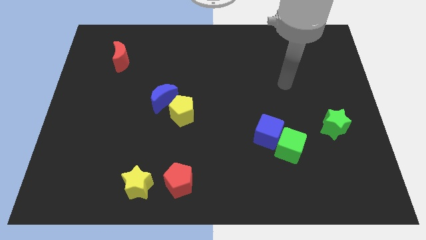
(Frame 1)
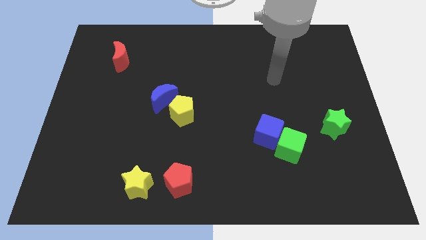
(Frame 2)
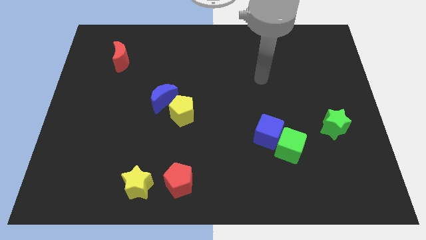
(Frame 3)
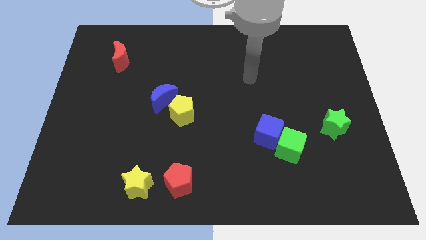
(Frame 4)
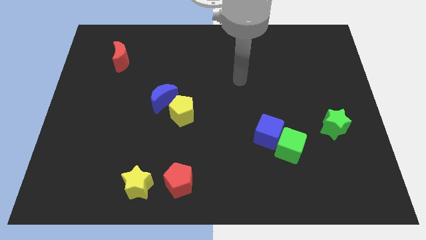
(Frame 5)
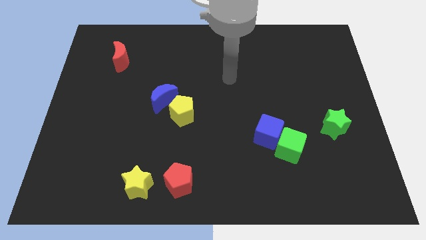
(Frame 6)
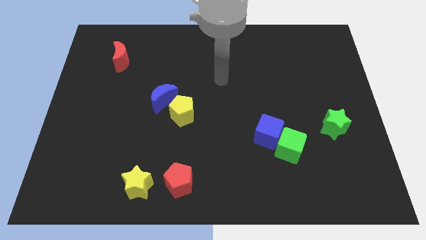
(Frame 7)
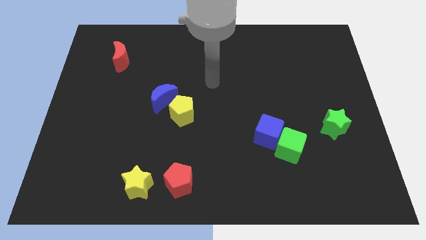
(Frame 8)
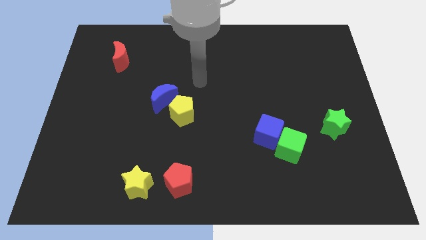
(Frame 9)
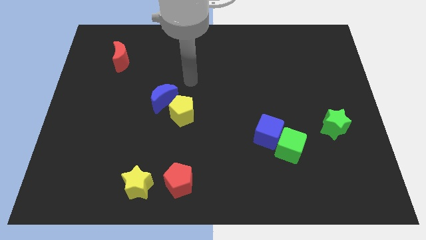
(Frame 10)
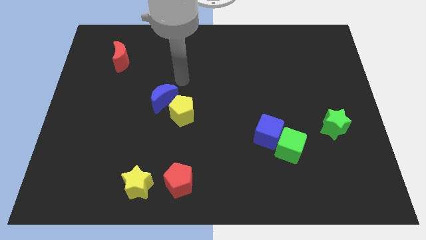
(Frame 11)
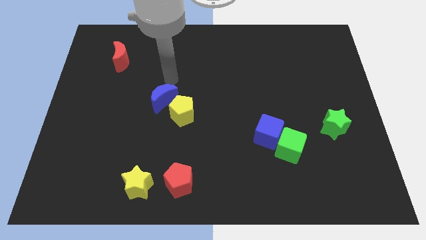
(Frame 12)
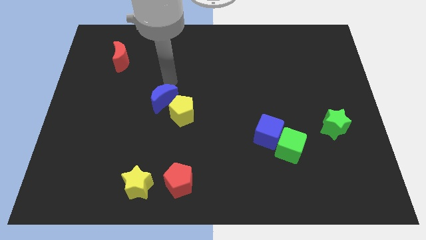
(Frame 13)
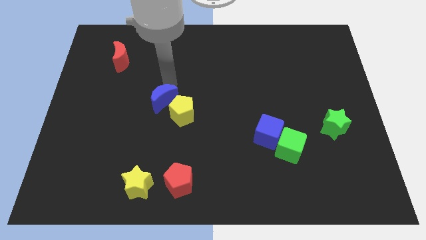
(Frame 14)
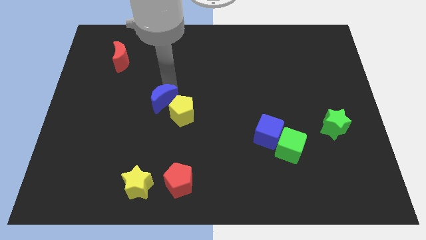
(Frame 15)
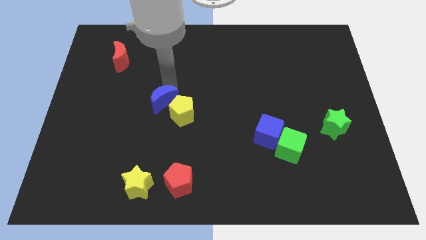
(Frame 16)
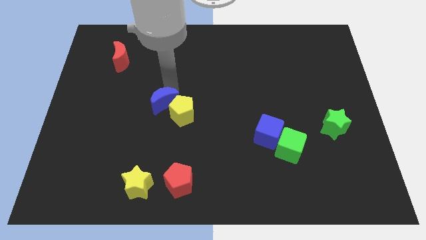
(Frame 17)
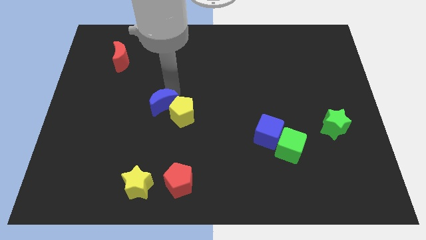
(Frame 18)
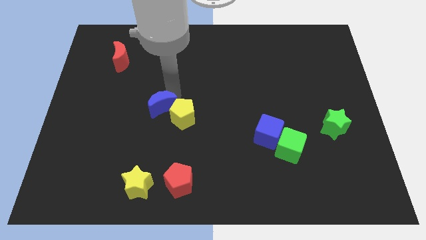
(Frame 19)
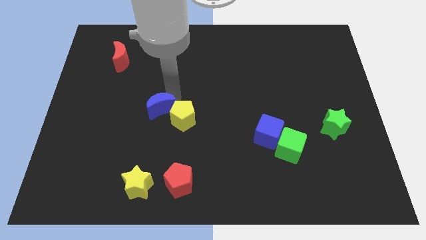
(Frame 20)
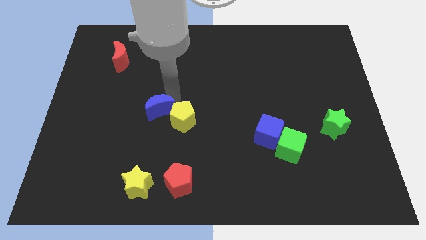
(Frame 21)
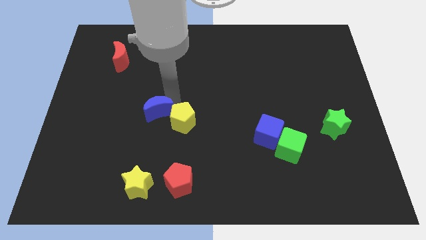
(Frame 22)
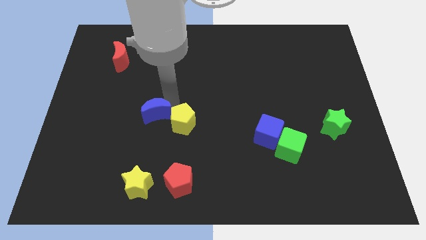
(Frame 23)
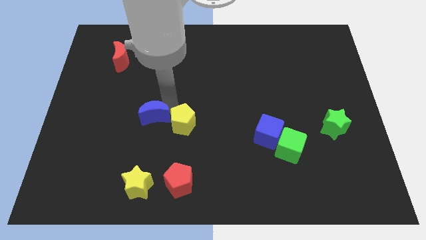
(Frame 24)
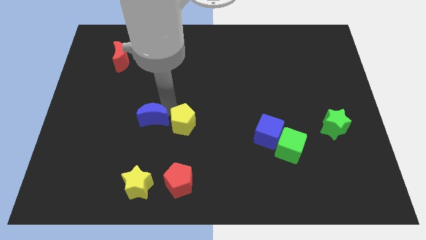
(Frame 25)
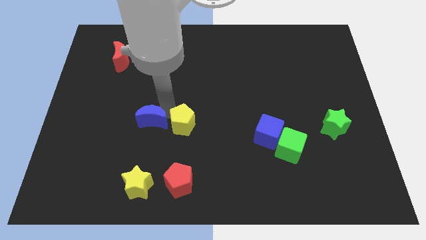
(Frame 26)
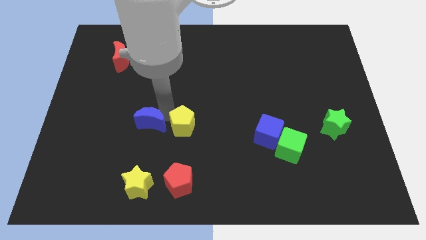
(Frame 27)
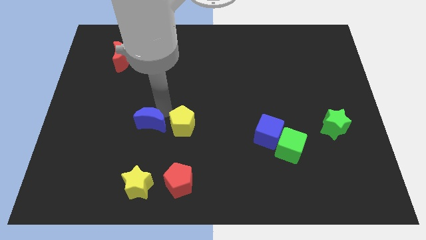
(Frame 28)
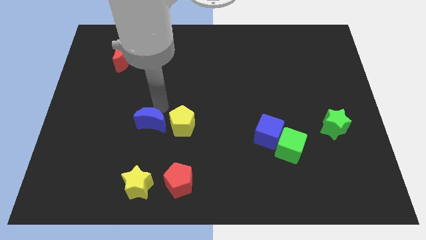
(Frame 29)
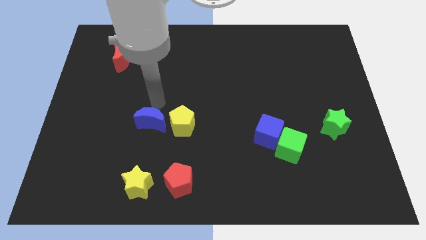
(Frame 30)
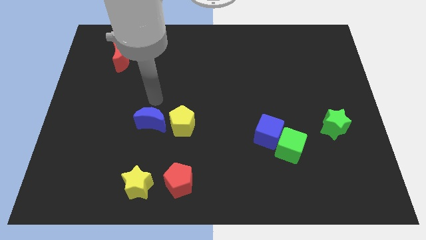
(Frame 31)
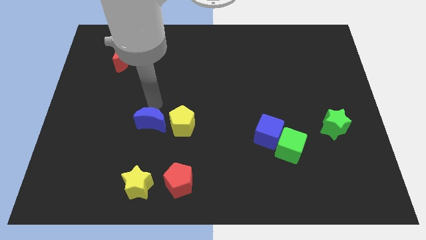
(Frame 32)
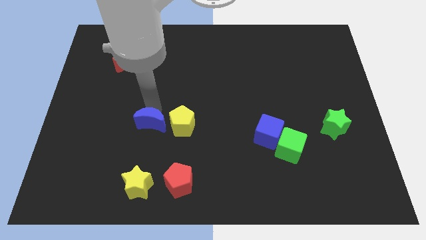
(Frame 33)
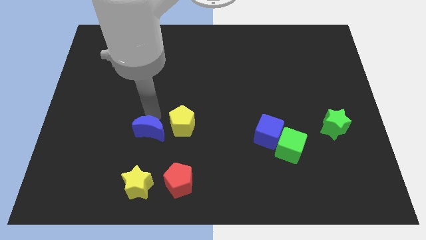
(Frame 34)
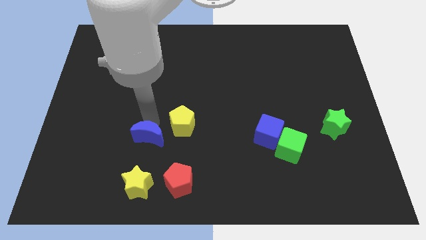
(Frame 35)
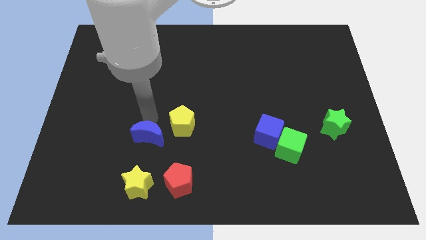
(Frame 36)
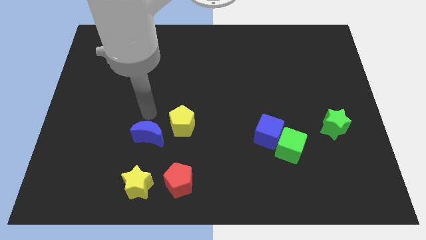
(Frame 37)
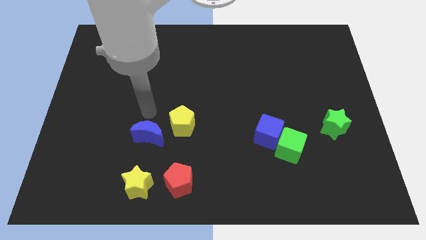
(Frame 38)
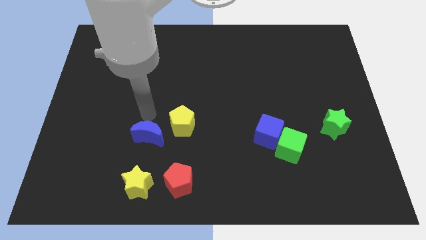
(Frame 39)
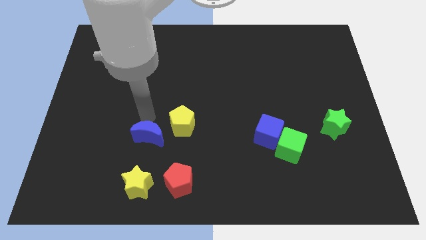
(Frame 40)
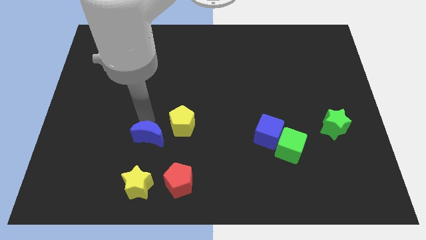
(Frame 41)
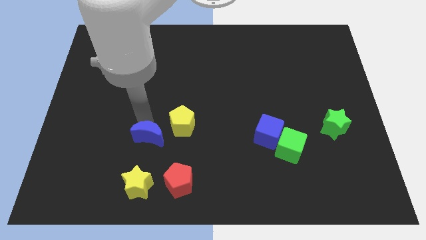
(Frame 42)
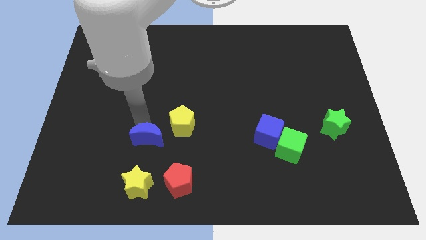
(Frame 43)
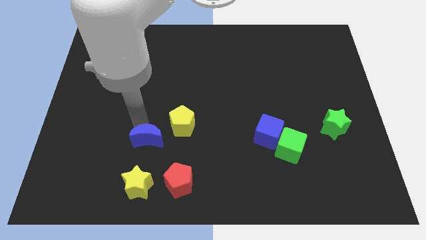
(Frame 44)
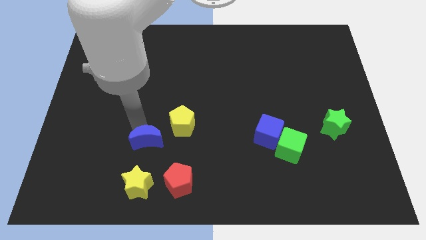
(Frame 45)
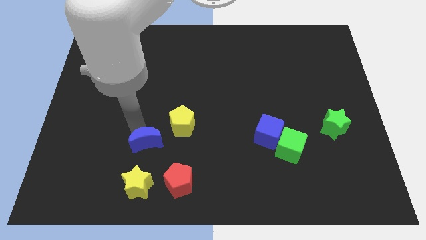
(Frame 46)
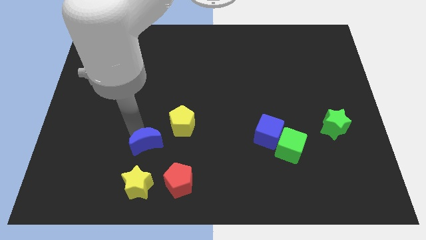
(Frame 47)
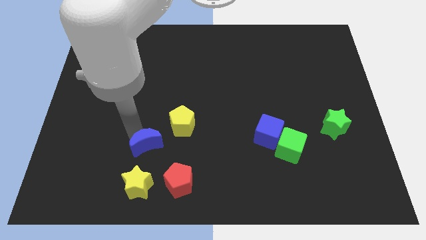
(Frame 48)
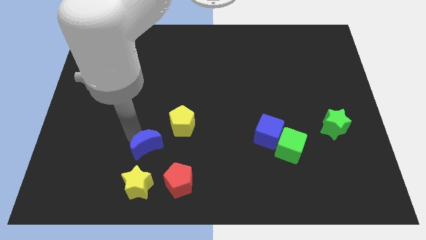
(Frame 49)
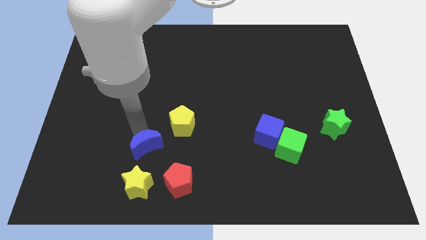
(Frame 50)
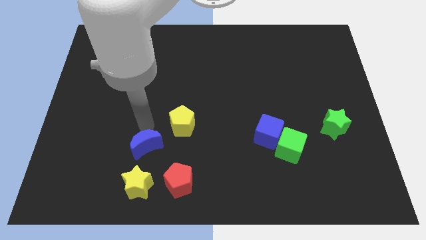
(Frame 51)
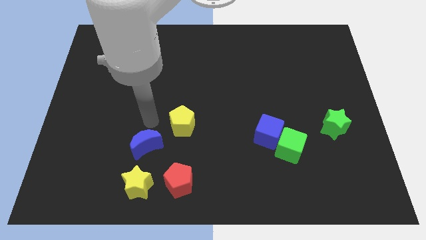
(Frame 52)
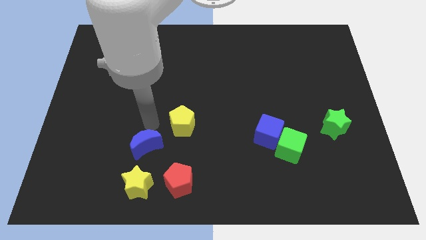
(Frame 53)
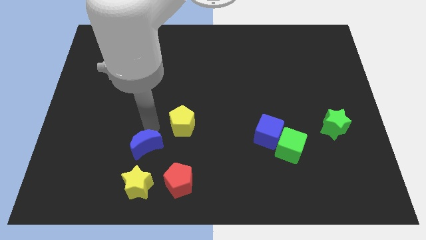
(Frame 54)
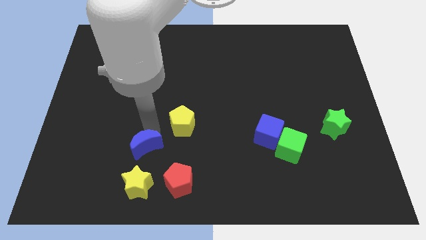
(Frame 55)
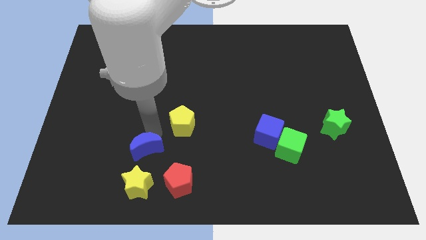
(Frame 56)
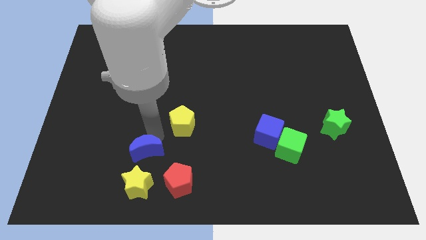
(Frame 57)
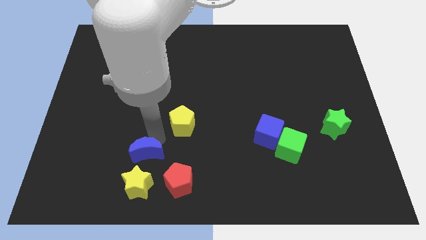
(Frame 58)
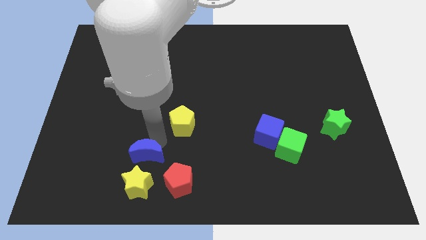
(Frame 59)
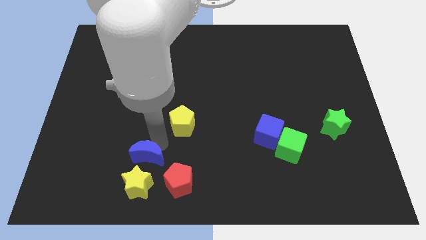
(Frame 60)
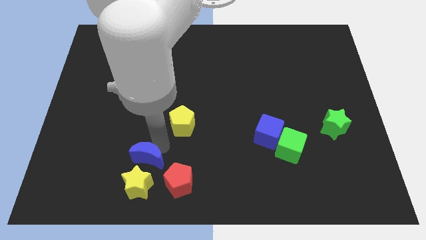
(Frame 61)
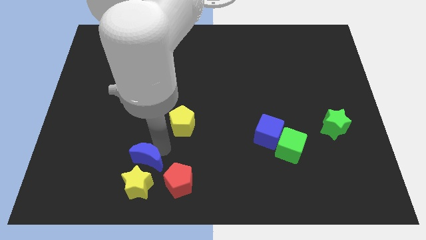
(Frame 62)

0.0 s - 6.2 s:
put the blue moon next to the yellow star

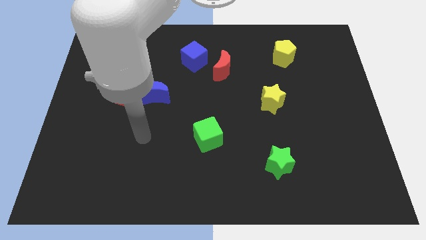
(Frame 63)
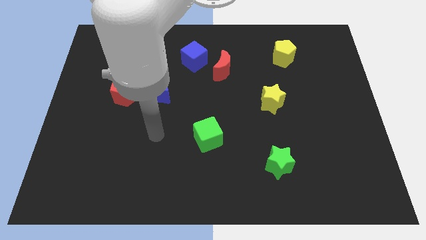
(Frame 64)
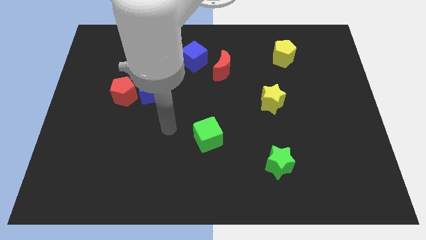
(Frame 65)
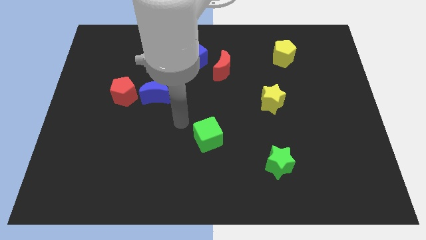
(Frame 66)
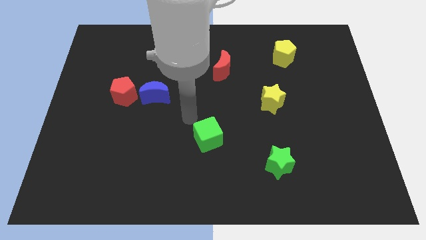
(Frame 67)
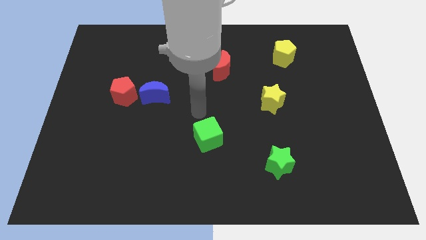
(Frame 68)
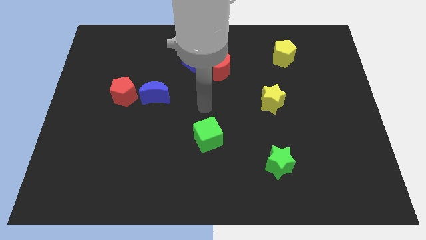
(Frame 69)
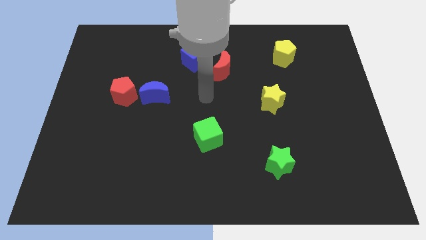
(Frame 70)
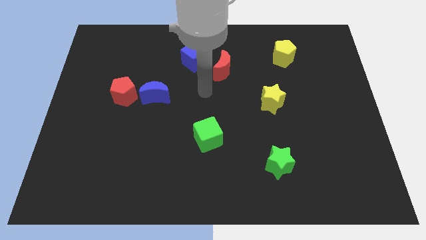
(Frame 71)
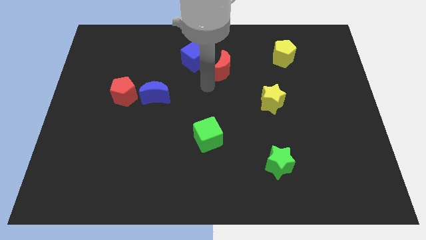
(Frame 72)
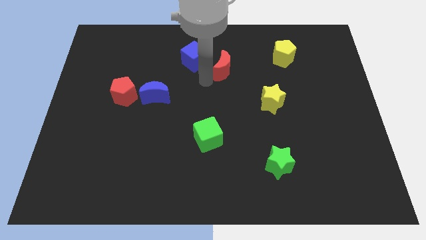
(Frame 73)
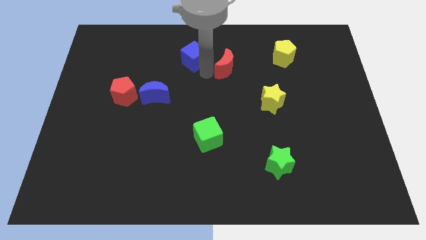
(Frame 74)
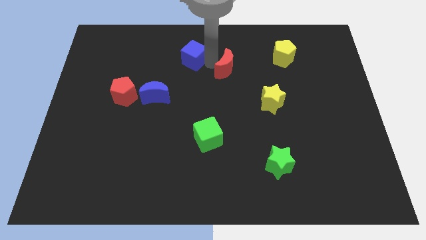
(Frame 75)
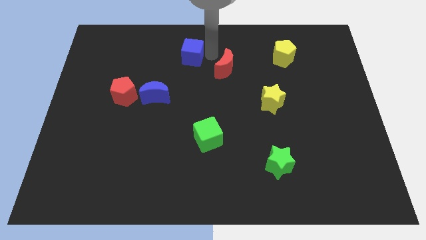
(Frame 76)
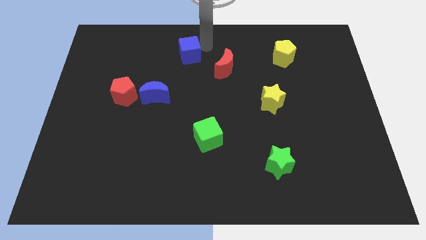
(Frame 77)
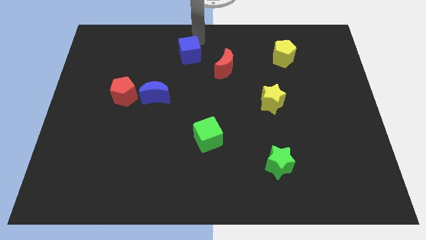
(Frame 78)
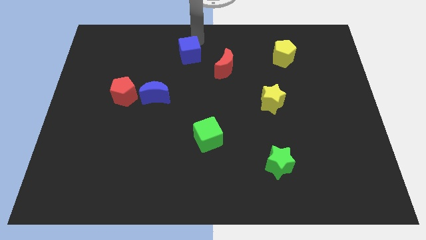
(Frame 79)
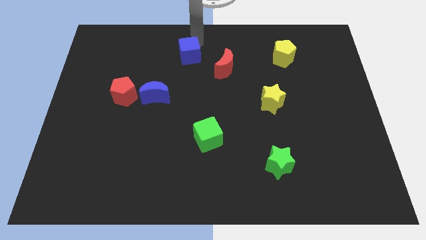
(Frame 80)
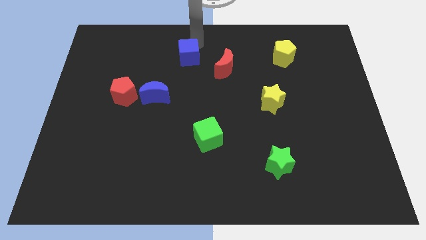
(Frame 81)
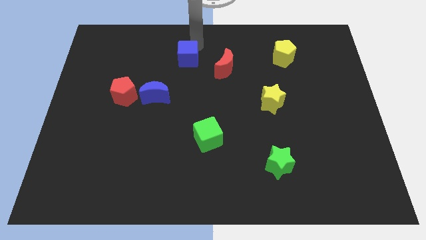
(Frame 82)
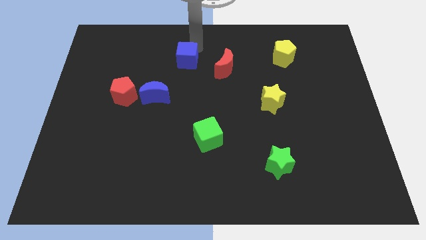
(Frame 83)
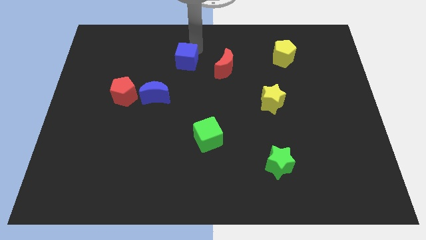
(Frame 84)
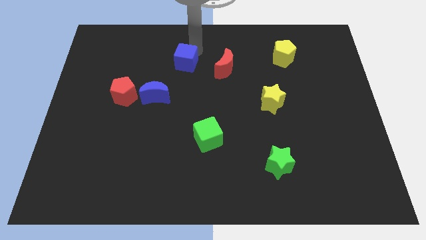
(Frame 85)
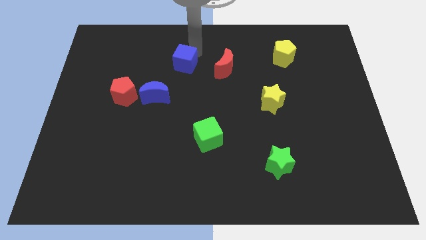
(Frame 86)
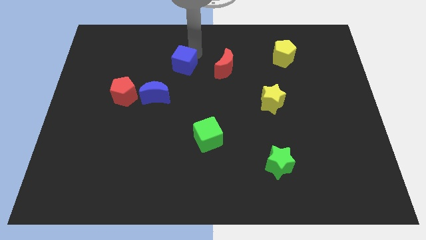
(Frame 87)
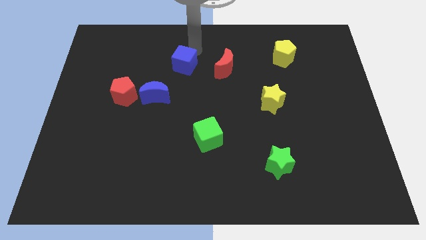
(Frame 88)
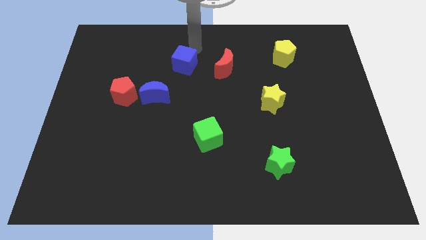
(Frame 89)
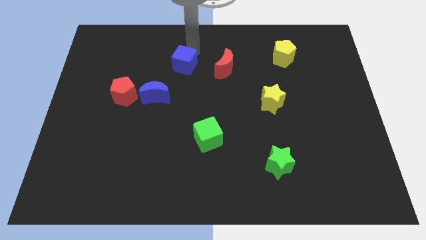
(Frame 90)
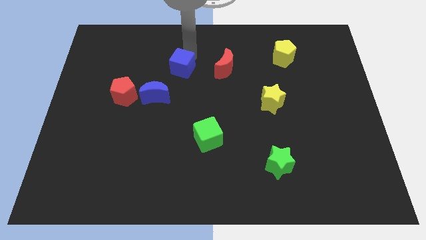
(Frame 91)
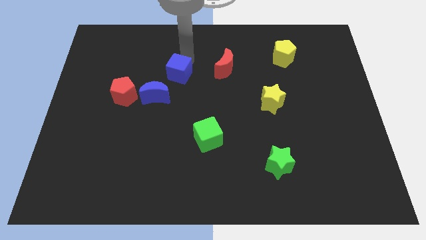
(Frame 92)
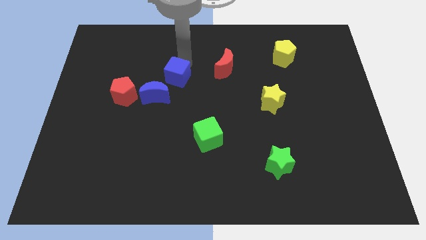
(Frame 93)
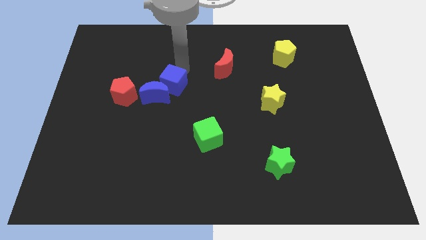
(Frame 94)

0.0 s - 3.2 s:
move the blue cube to the blue moon
